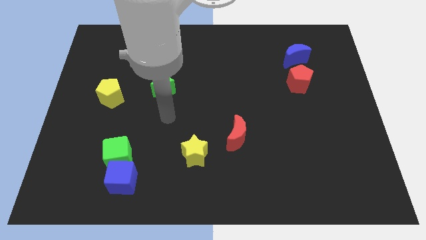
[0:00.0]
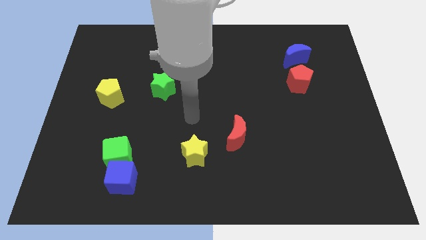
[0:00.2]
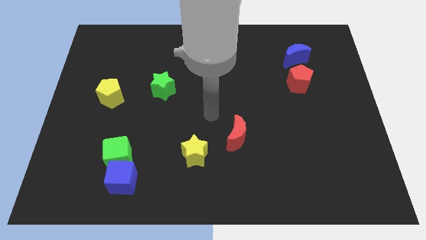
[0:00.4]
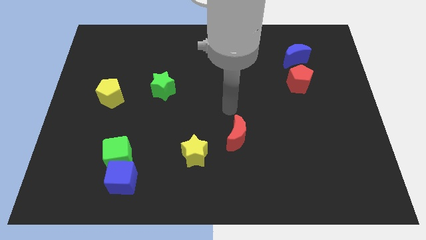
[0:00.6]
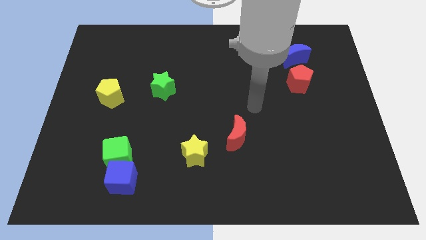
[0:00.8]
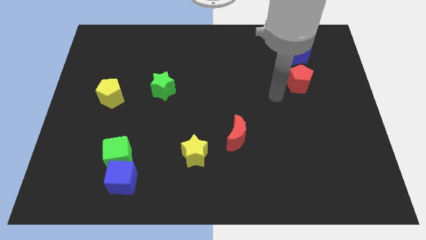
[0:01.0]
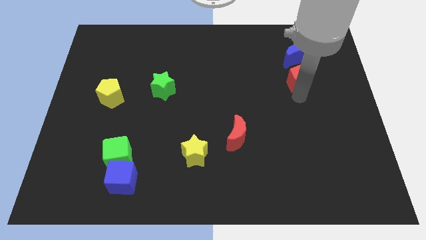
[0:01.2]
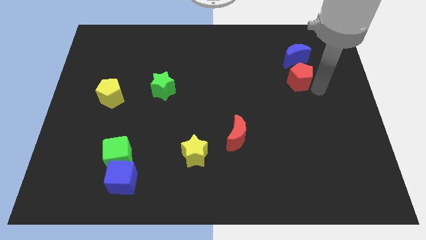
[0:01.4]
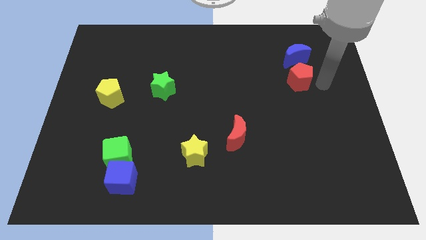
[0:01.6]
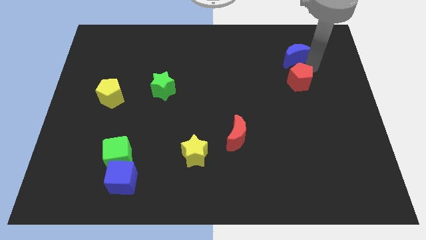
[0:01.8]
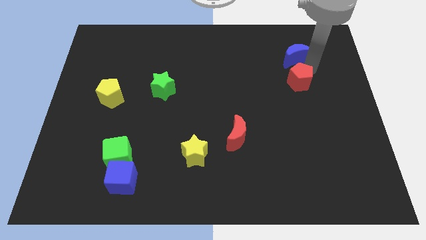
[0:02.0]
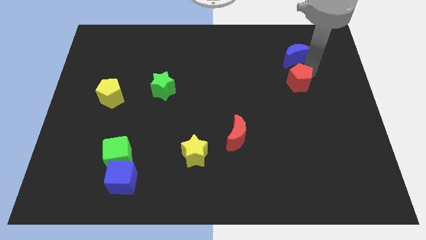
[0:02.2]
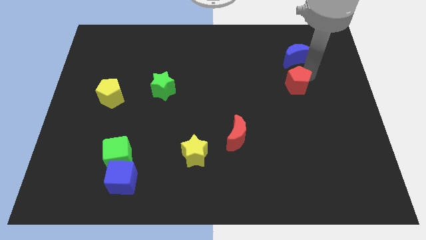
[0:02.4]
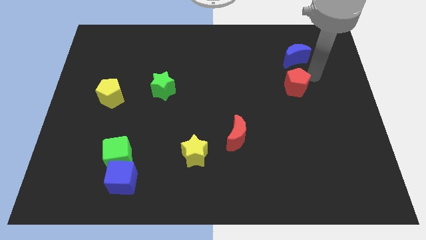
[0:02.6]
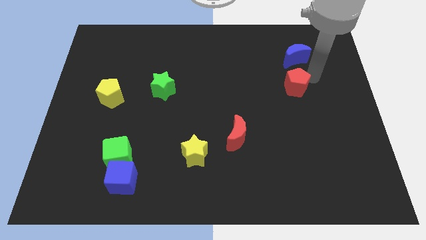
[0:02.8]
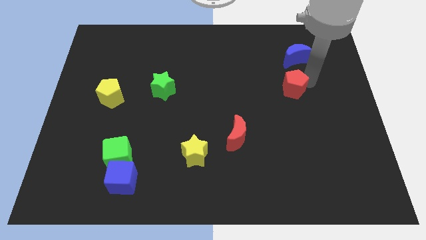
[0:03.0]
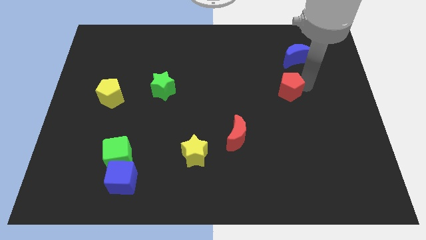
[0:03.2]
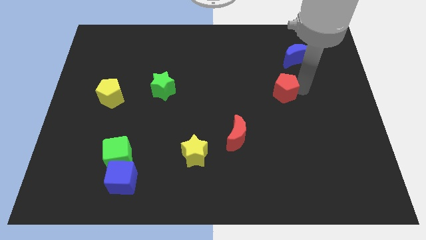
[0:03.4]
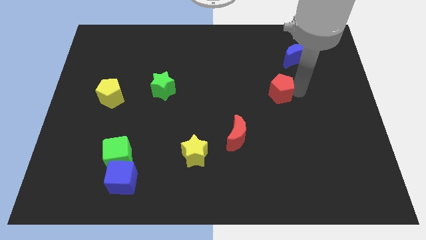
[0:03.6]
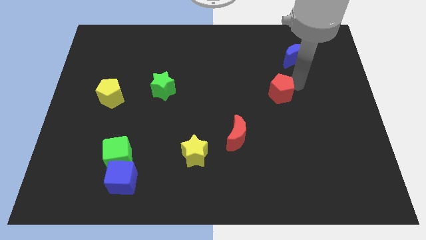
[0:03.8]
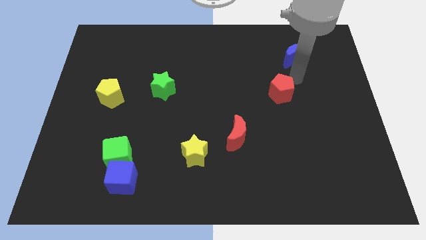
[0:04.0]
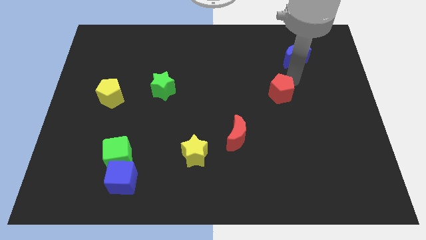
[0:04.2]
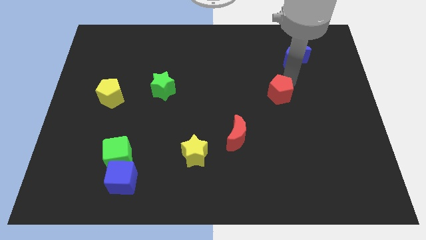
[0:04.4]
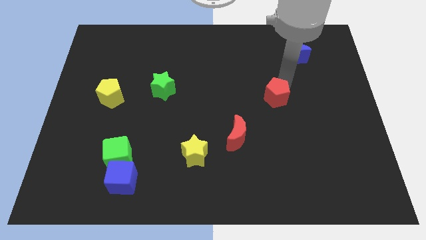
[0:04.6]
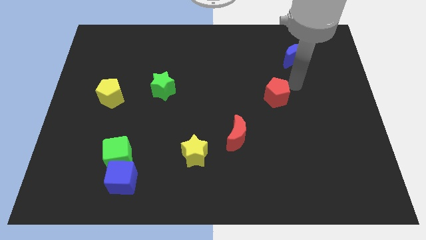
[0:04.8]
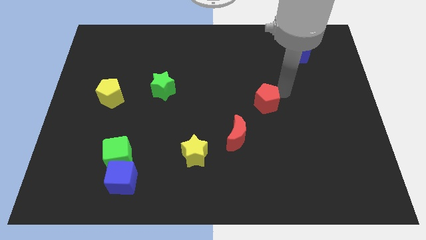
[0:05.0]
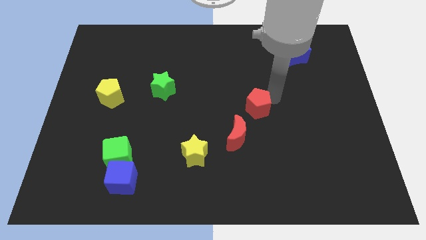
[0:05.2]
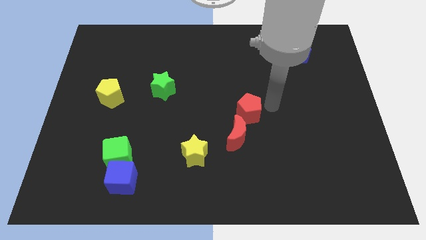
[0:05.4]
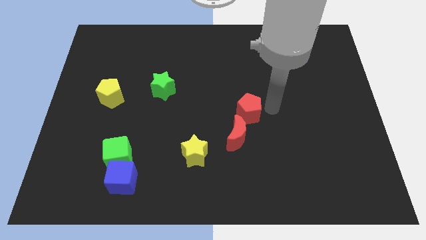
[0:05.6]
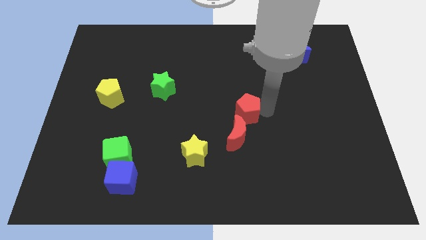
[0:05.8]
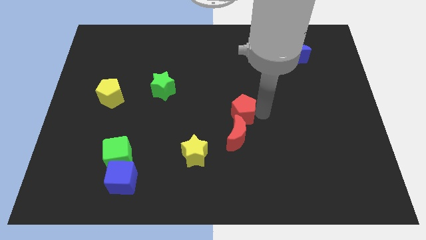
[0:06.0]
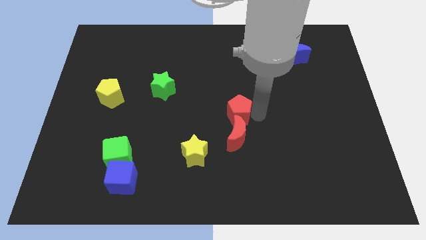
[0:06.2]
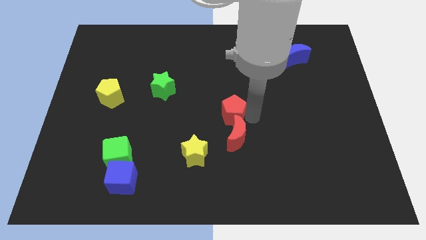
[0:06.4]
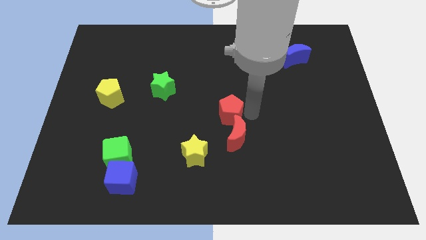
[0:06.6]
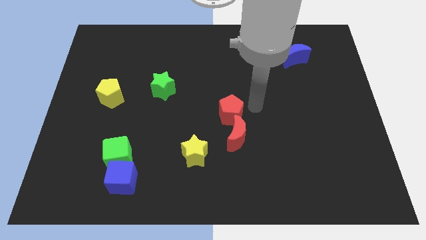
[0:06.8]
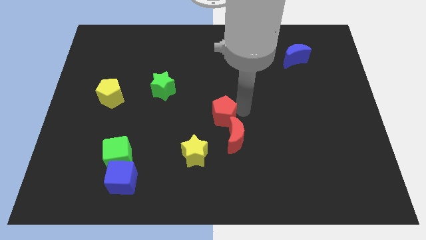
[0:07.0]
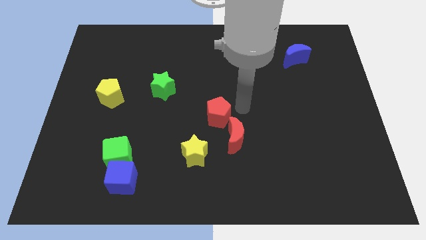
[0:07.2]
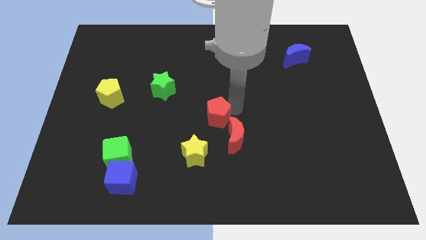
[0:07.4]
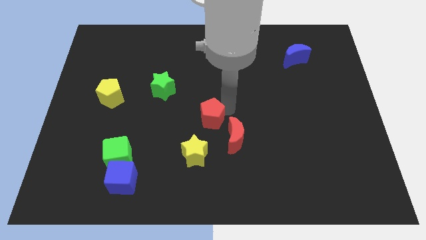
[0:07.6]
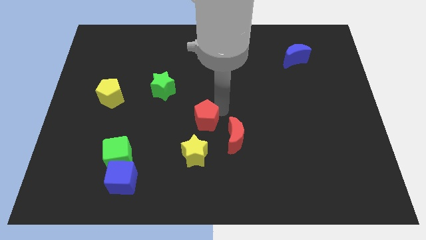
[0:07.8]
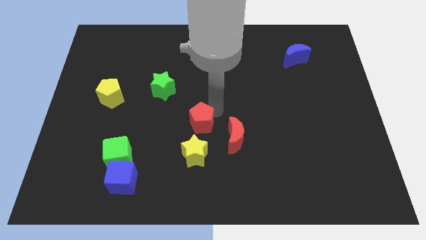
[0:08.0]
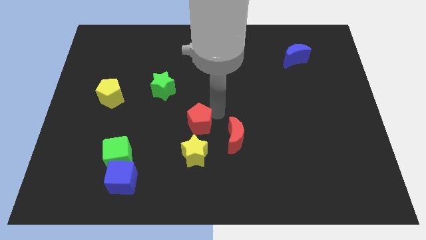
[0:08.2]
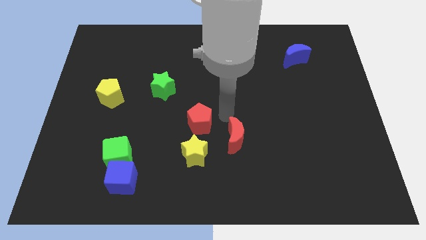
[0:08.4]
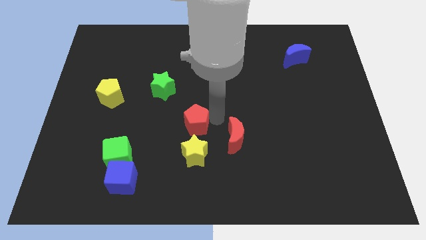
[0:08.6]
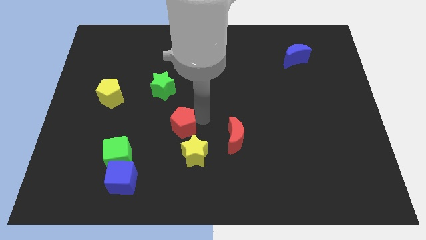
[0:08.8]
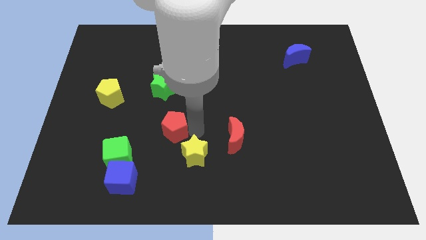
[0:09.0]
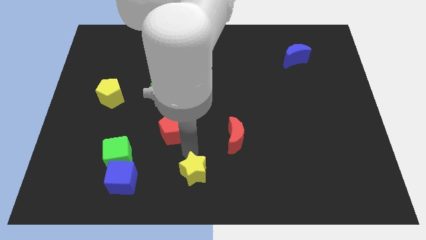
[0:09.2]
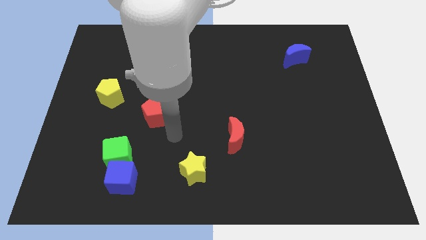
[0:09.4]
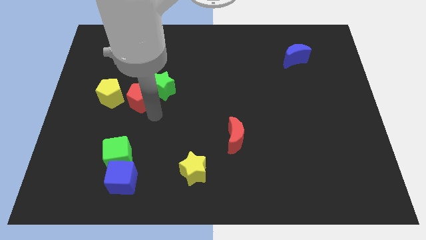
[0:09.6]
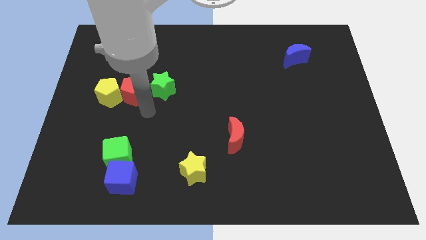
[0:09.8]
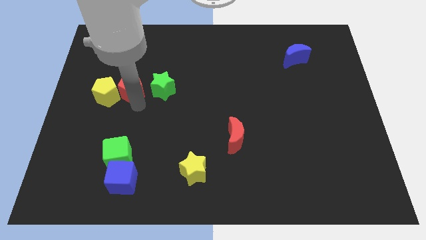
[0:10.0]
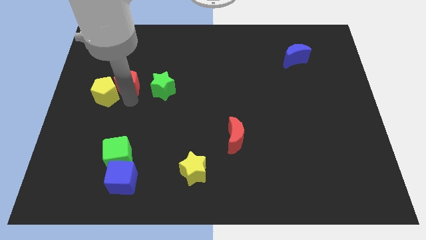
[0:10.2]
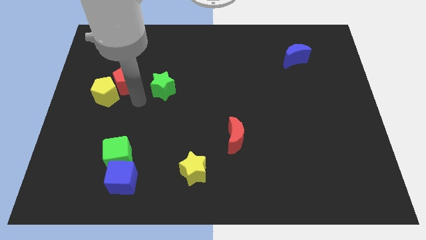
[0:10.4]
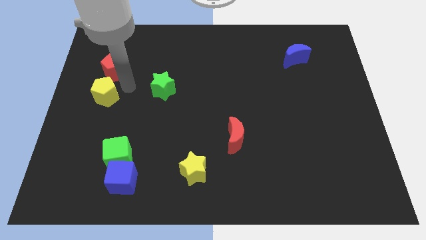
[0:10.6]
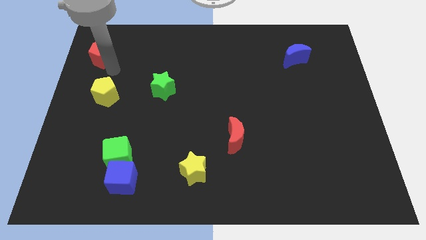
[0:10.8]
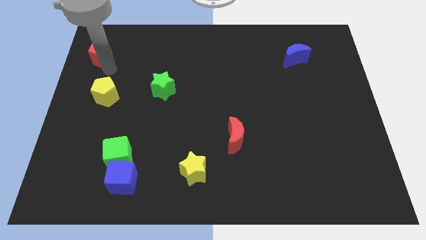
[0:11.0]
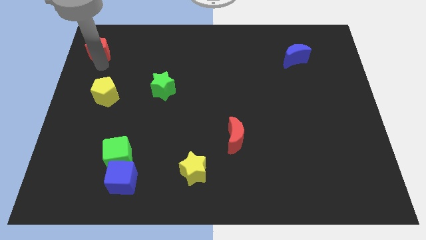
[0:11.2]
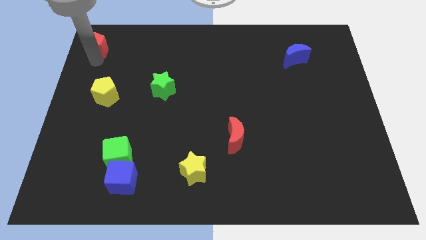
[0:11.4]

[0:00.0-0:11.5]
slide the red pentagon to the top left

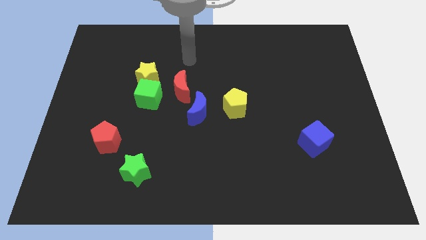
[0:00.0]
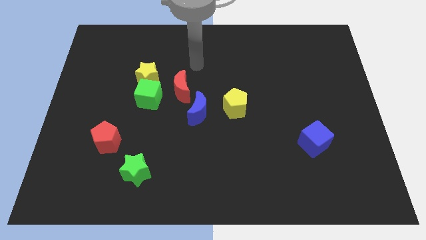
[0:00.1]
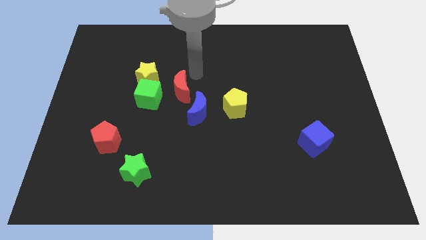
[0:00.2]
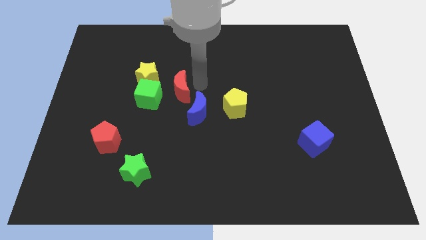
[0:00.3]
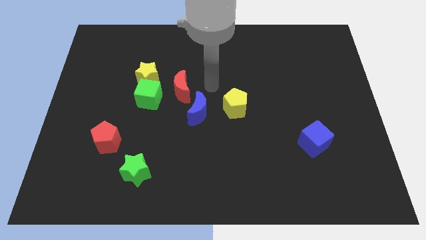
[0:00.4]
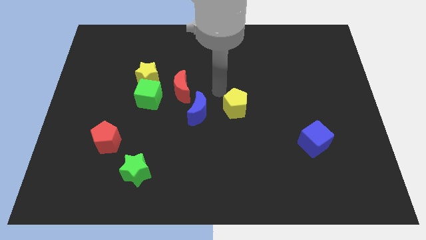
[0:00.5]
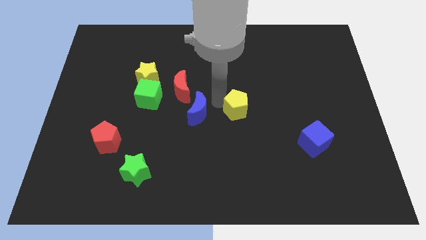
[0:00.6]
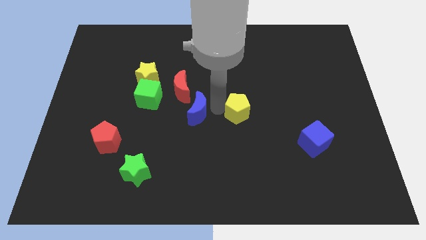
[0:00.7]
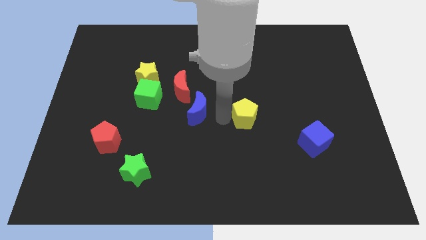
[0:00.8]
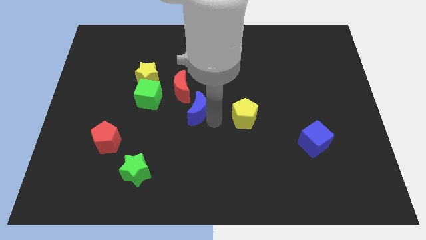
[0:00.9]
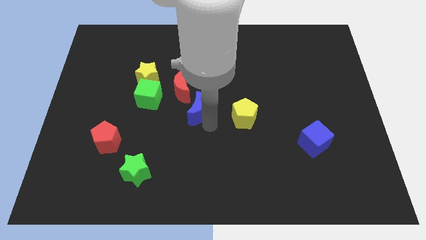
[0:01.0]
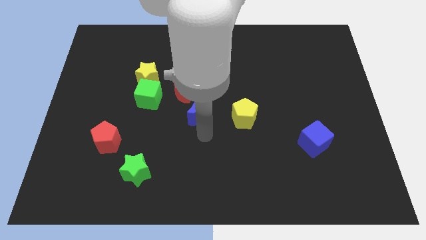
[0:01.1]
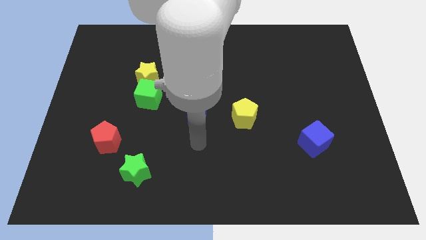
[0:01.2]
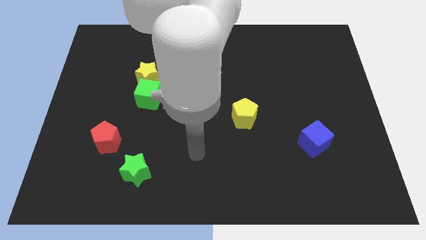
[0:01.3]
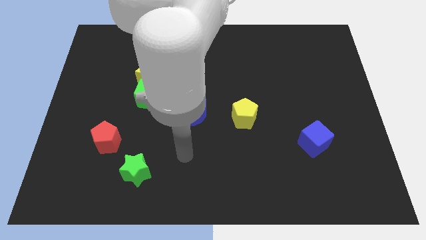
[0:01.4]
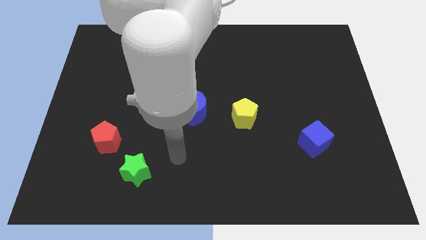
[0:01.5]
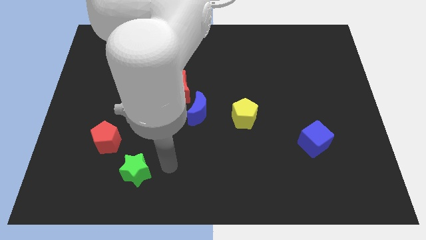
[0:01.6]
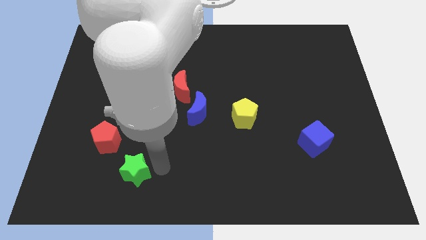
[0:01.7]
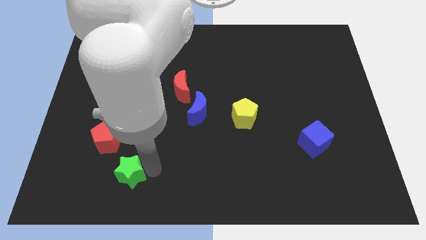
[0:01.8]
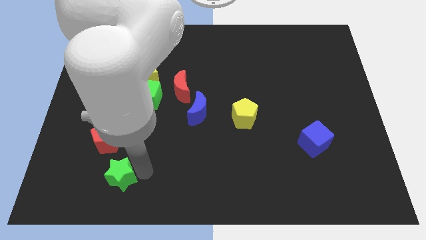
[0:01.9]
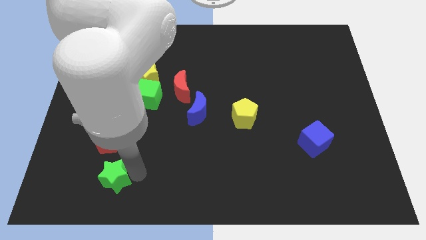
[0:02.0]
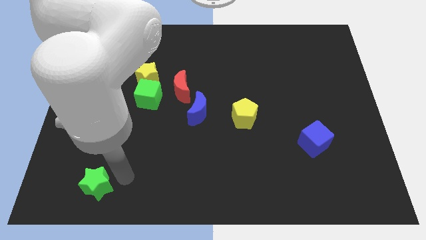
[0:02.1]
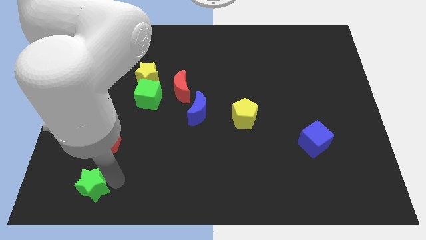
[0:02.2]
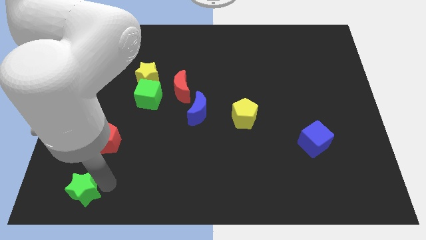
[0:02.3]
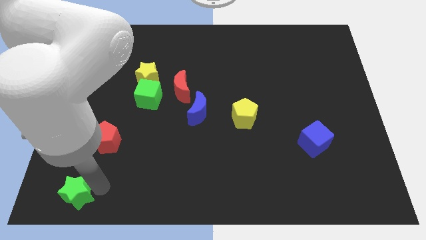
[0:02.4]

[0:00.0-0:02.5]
move the green star to the bottom left of the board
